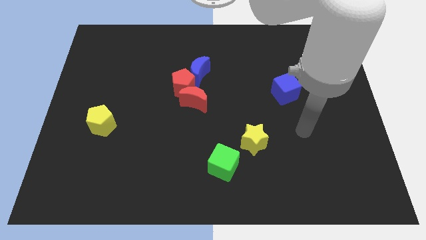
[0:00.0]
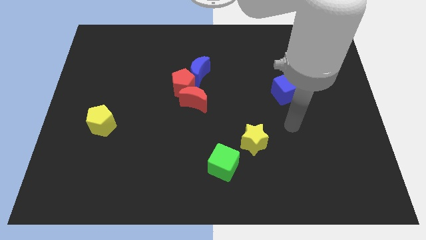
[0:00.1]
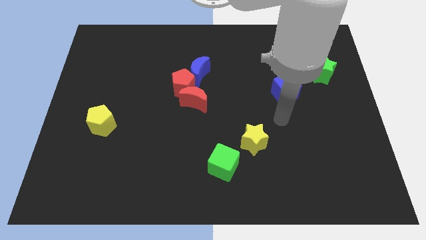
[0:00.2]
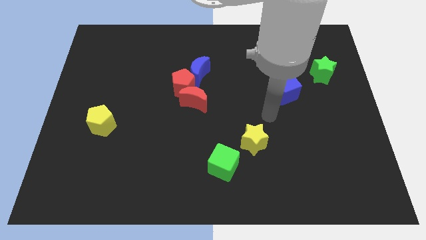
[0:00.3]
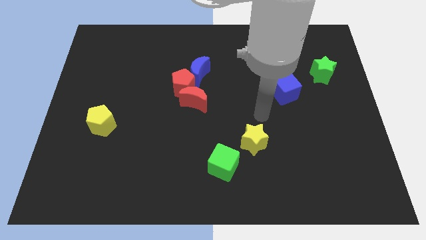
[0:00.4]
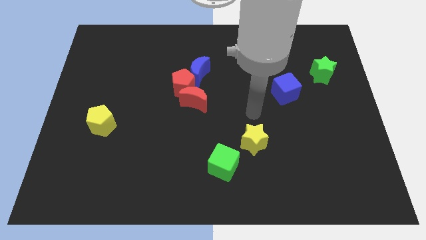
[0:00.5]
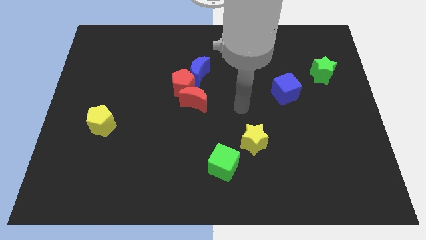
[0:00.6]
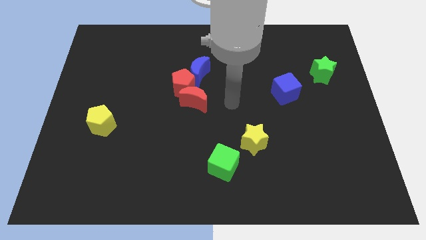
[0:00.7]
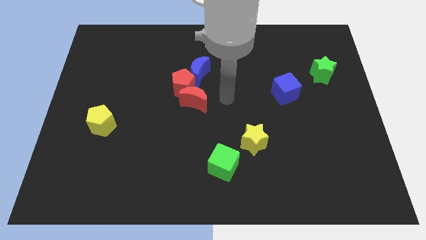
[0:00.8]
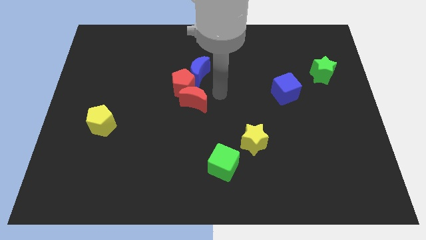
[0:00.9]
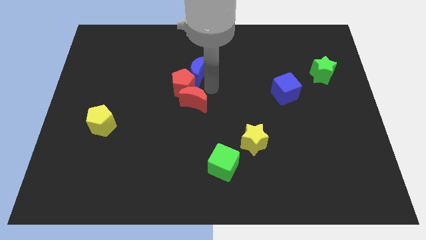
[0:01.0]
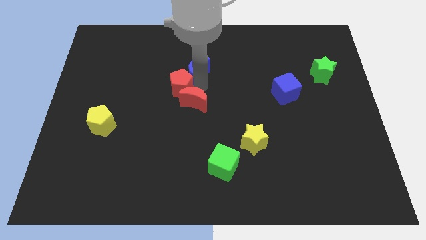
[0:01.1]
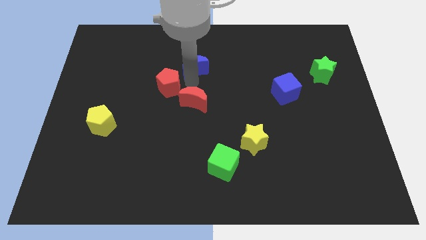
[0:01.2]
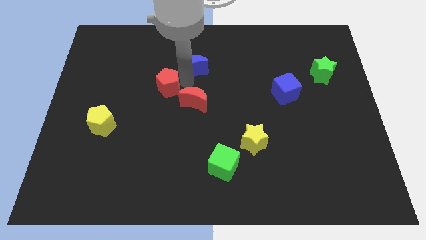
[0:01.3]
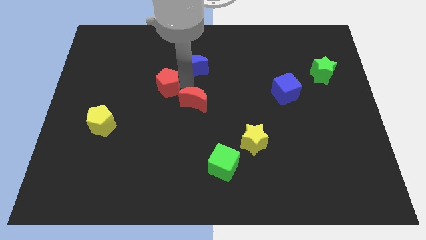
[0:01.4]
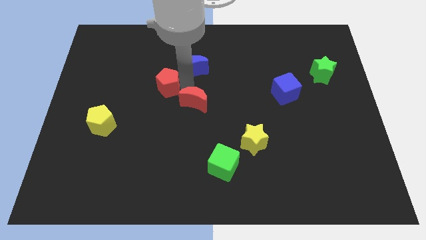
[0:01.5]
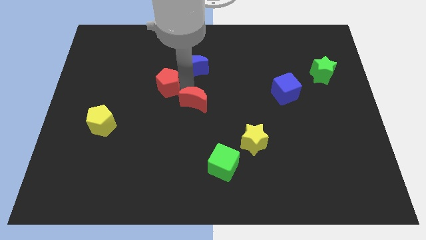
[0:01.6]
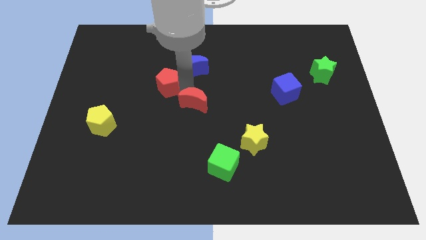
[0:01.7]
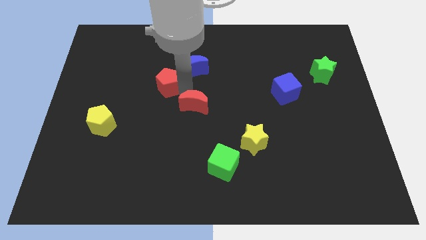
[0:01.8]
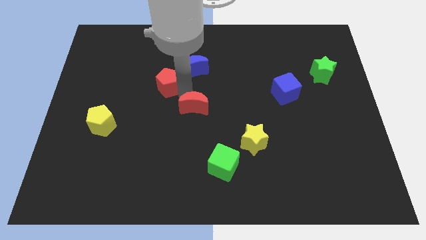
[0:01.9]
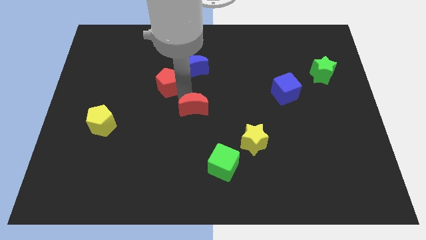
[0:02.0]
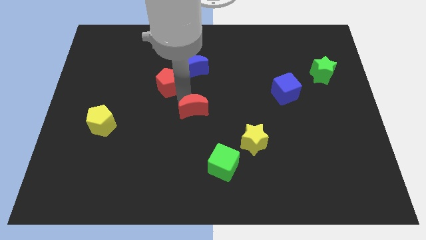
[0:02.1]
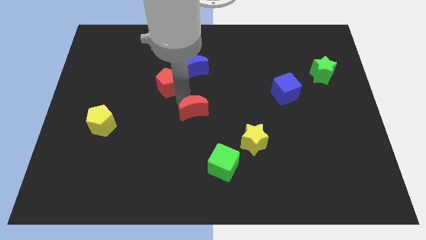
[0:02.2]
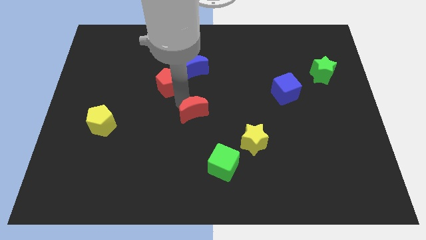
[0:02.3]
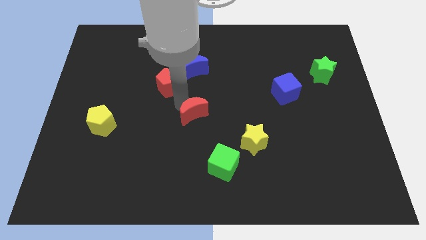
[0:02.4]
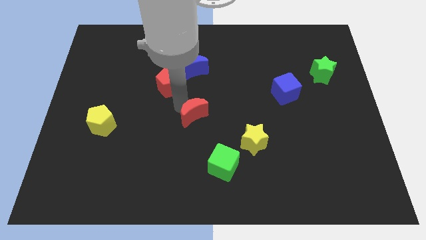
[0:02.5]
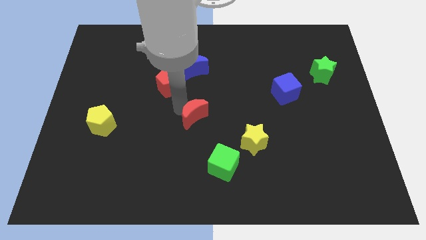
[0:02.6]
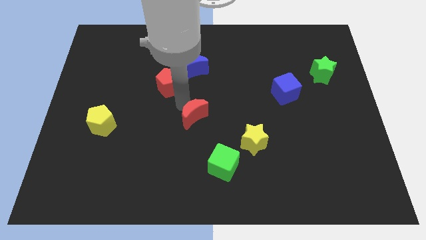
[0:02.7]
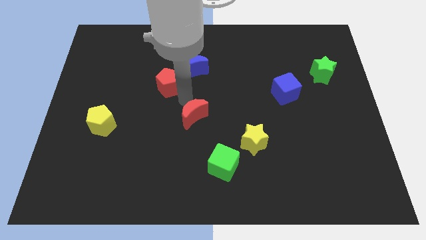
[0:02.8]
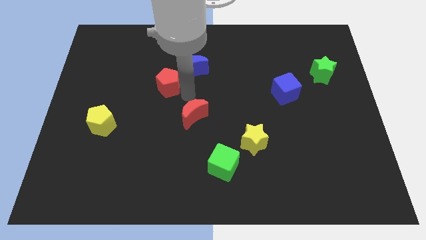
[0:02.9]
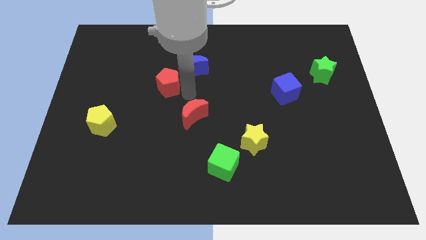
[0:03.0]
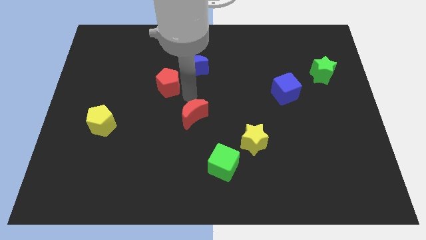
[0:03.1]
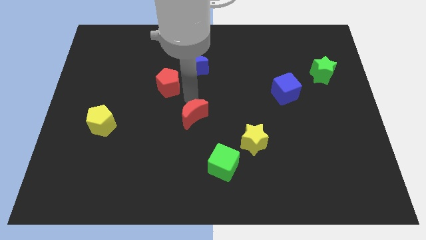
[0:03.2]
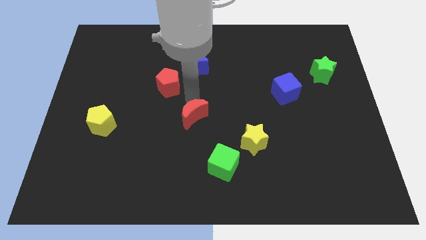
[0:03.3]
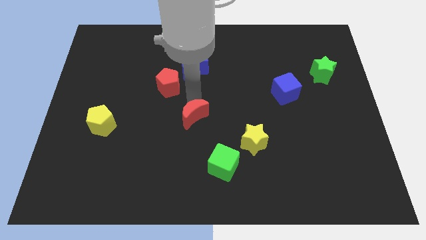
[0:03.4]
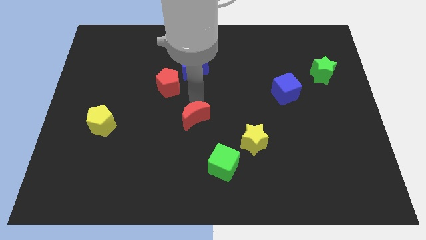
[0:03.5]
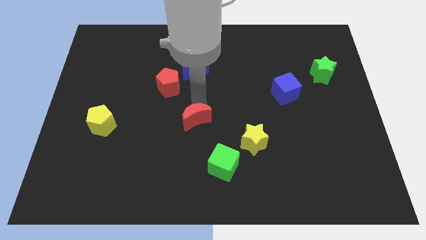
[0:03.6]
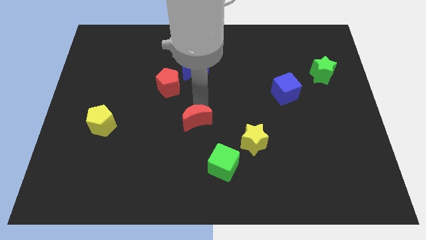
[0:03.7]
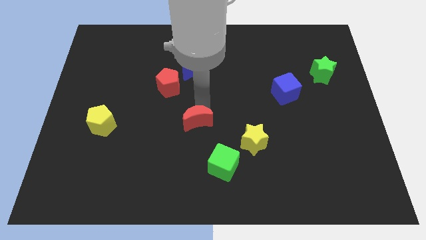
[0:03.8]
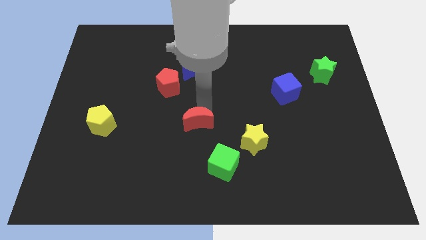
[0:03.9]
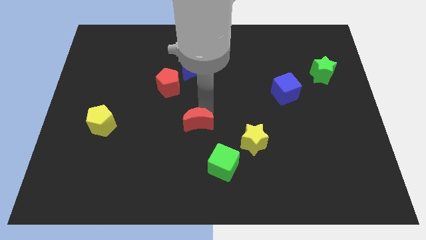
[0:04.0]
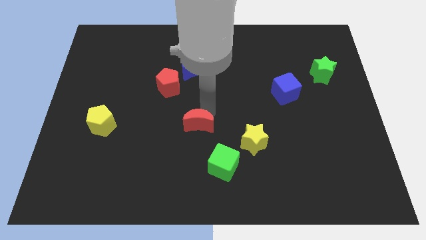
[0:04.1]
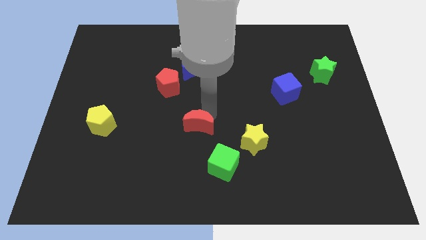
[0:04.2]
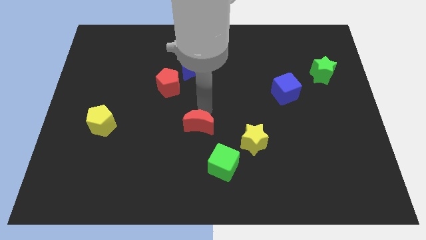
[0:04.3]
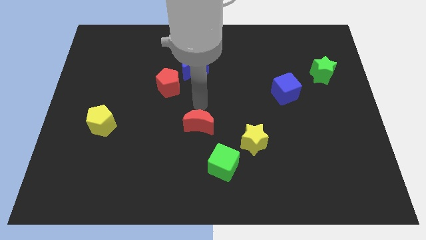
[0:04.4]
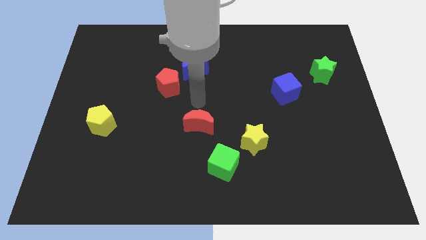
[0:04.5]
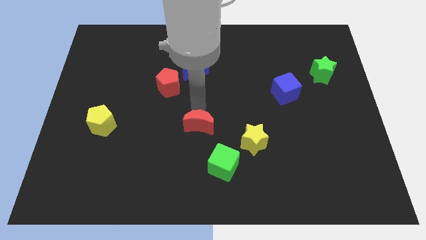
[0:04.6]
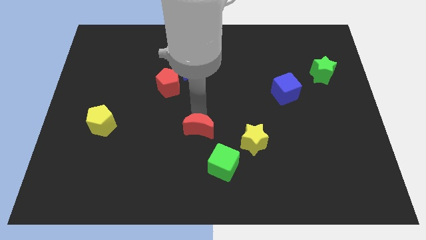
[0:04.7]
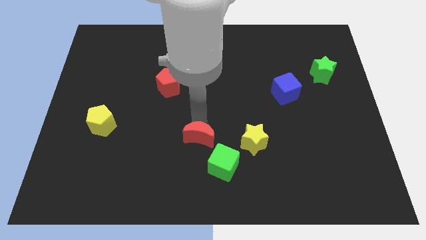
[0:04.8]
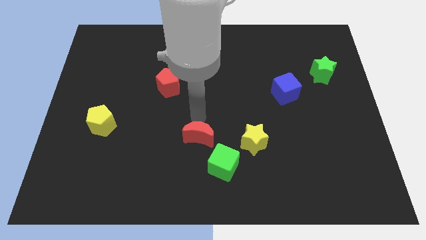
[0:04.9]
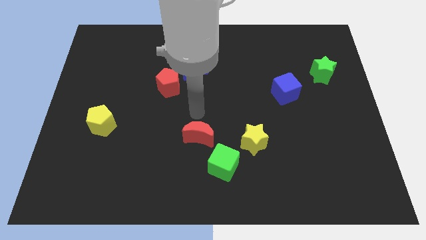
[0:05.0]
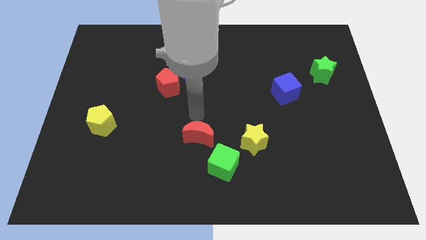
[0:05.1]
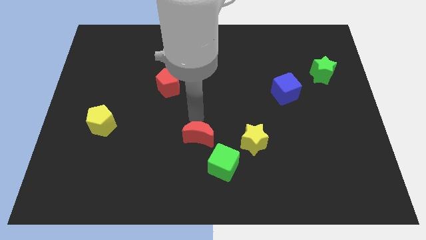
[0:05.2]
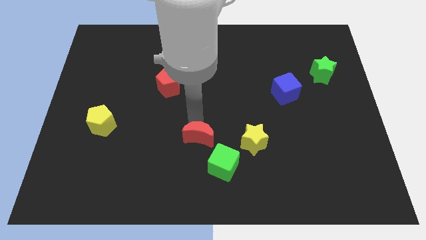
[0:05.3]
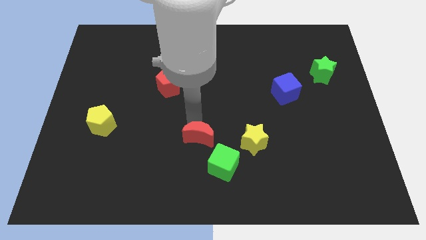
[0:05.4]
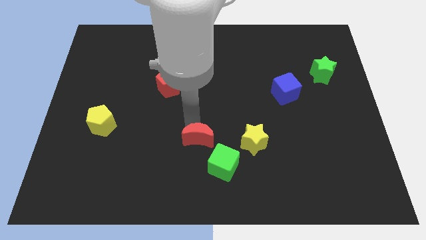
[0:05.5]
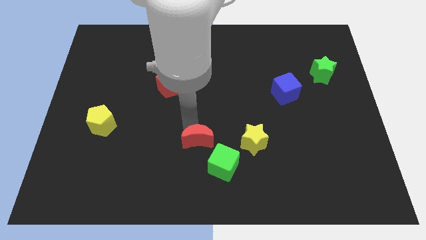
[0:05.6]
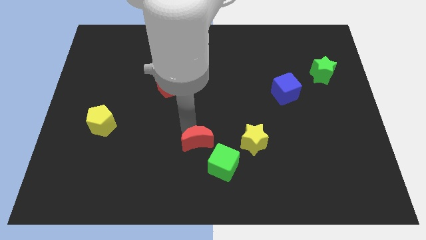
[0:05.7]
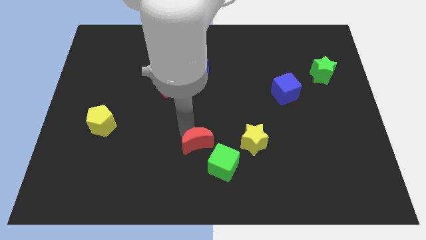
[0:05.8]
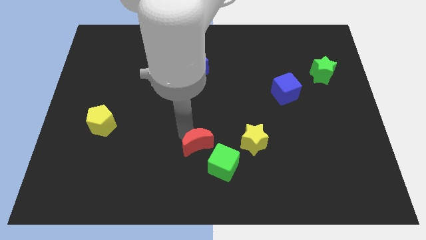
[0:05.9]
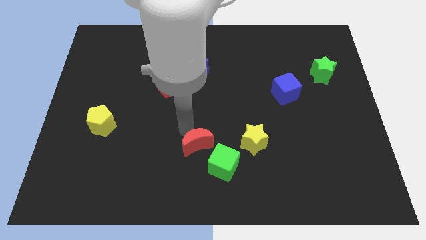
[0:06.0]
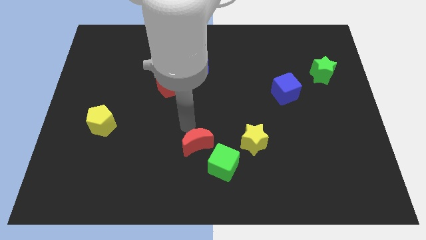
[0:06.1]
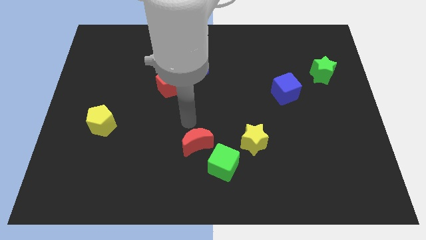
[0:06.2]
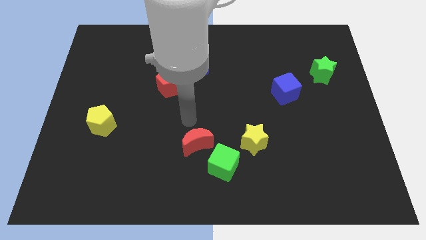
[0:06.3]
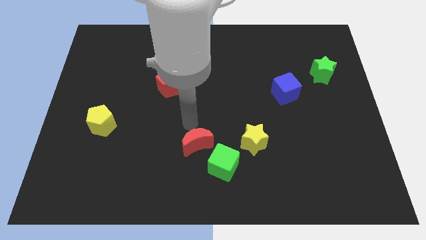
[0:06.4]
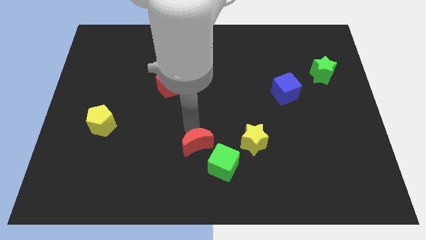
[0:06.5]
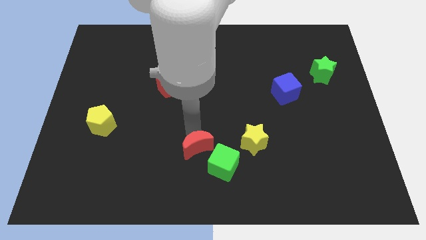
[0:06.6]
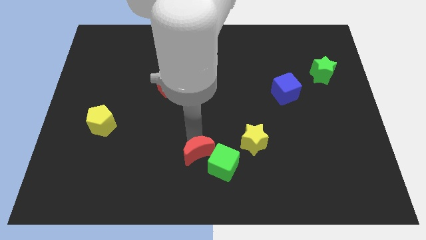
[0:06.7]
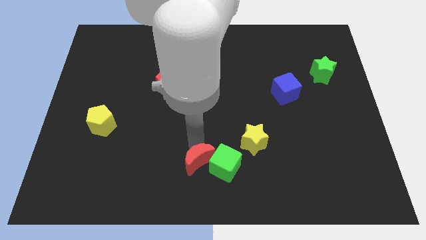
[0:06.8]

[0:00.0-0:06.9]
move the red moon to the bottom

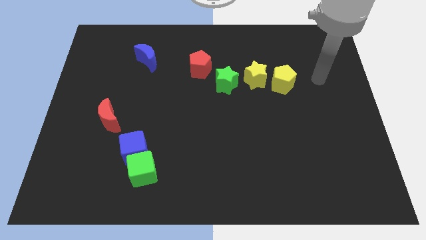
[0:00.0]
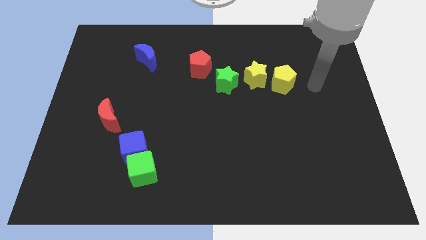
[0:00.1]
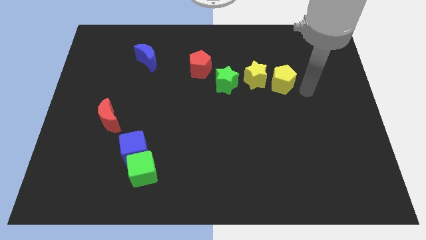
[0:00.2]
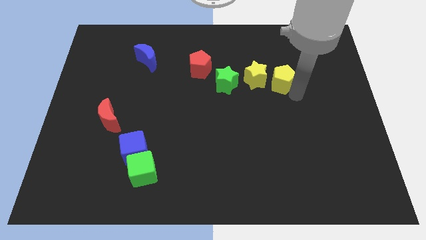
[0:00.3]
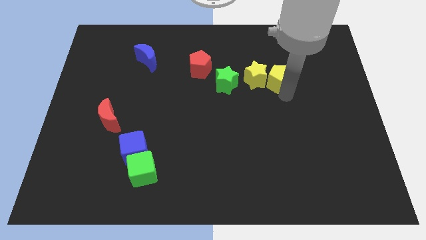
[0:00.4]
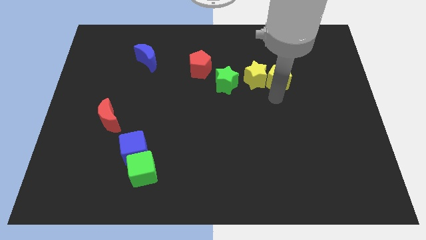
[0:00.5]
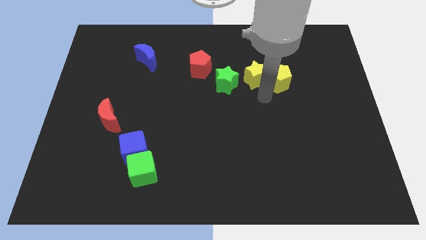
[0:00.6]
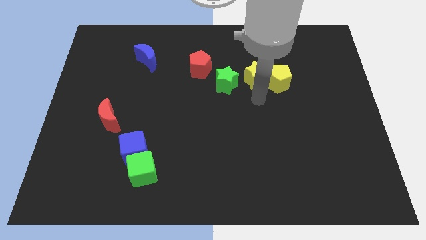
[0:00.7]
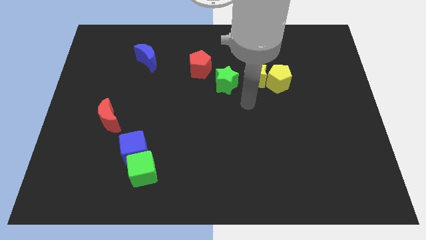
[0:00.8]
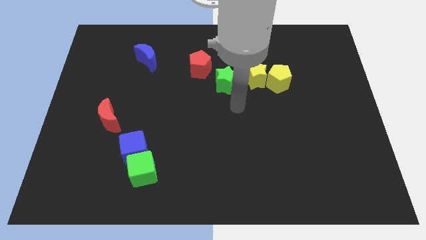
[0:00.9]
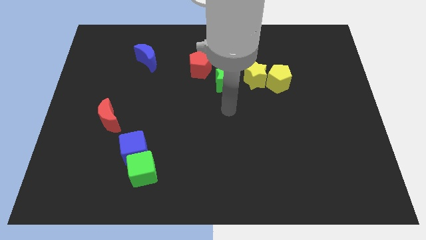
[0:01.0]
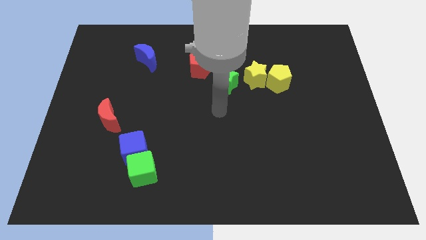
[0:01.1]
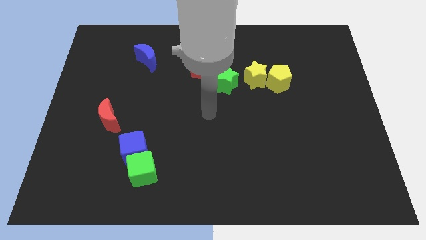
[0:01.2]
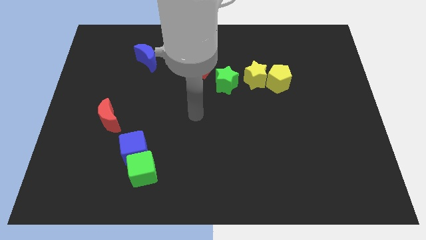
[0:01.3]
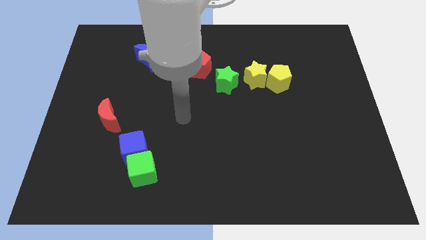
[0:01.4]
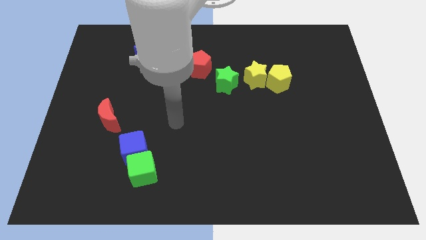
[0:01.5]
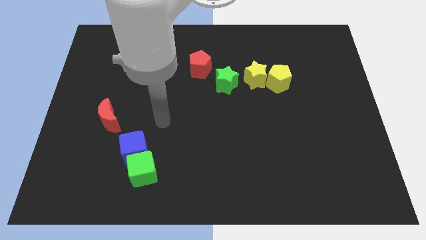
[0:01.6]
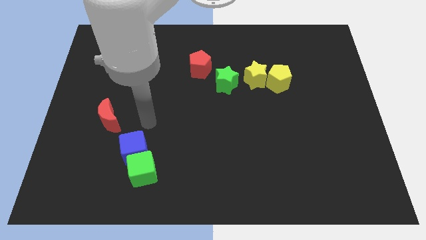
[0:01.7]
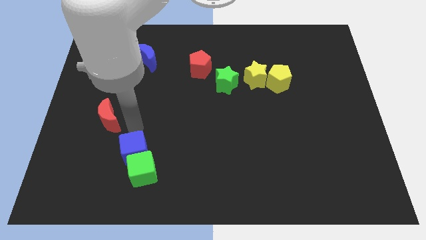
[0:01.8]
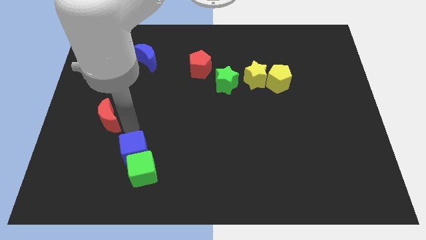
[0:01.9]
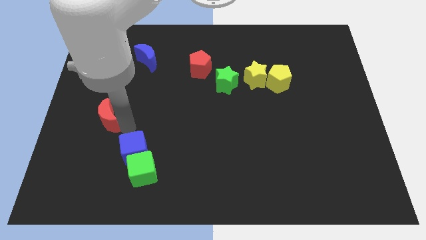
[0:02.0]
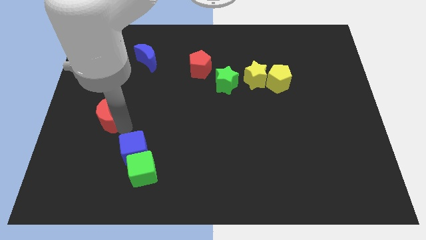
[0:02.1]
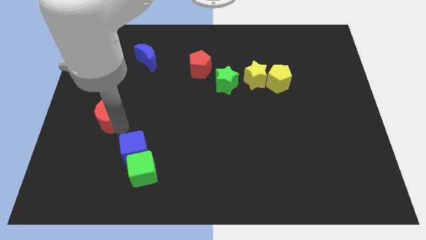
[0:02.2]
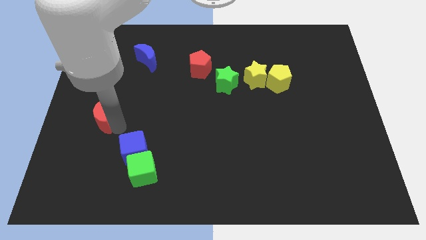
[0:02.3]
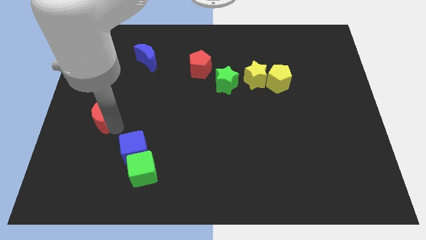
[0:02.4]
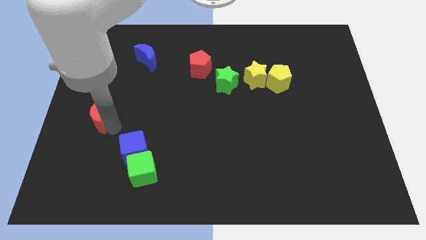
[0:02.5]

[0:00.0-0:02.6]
slide the red moon to the center left
